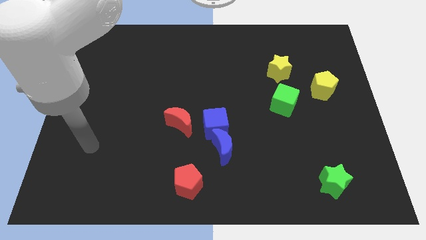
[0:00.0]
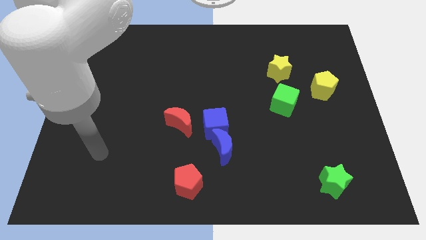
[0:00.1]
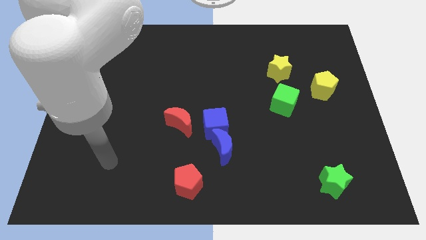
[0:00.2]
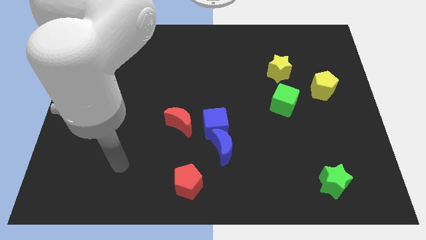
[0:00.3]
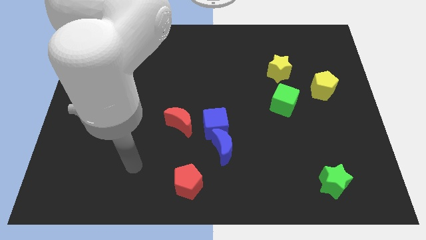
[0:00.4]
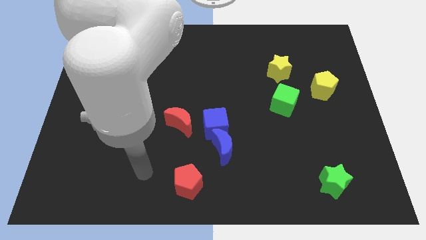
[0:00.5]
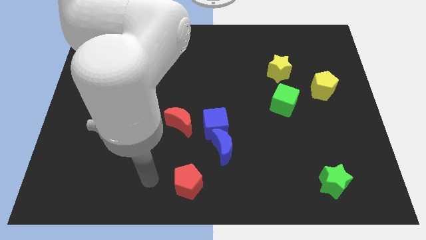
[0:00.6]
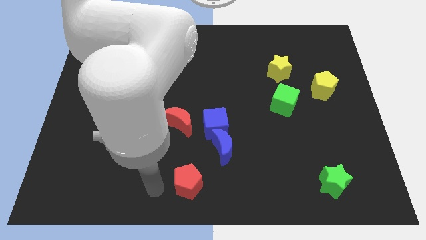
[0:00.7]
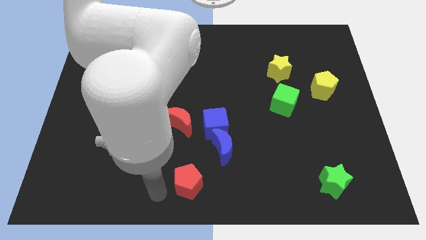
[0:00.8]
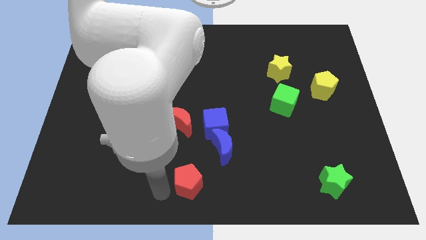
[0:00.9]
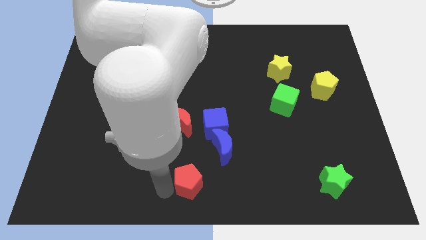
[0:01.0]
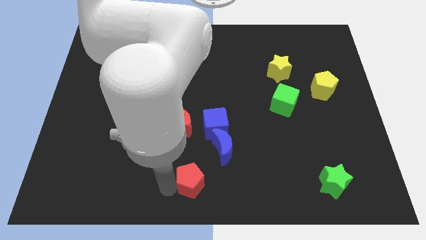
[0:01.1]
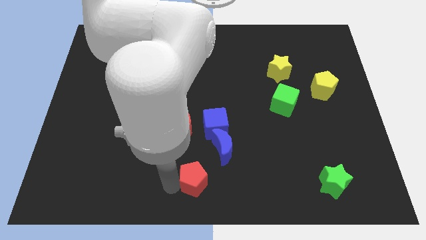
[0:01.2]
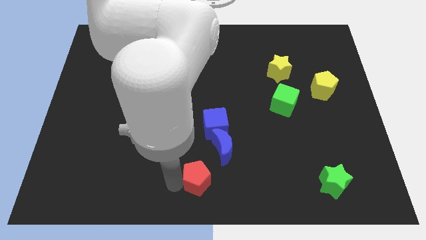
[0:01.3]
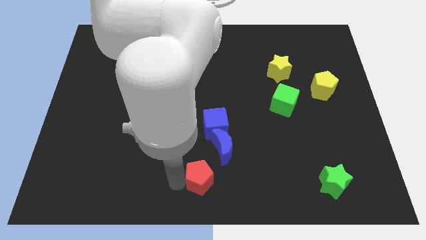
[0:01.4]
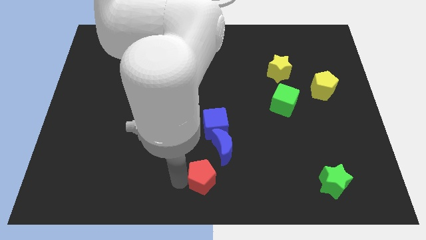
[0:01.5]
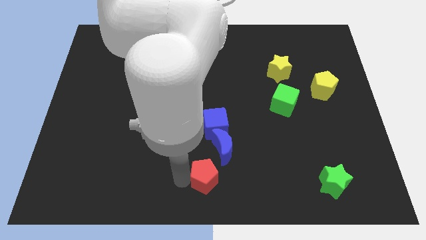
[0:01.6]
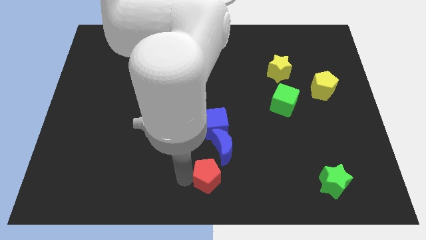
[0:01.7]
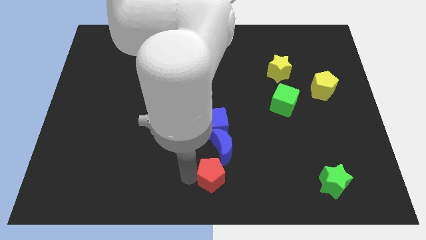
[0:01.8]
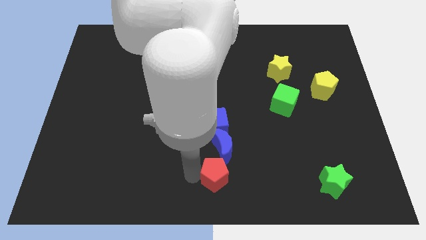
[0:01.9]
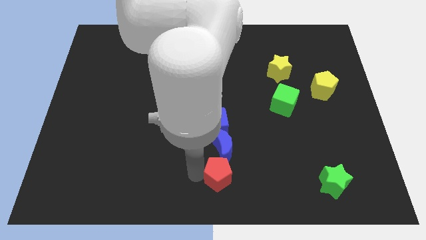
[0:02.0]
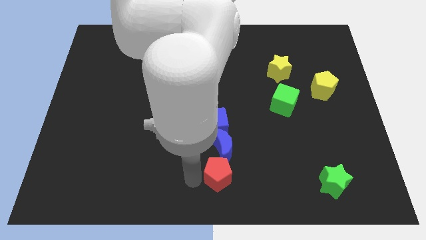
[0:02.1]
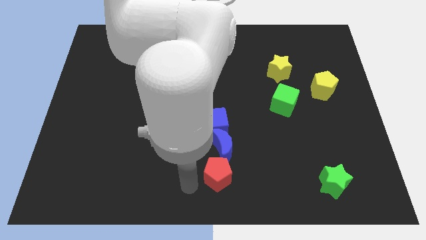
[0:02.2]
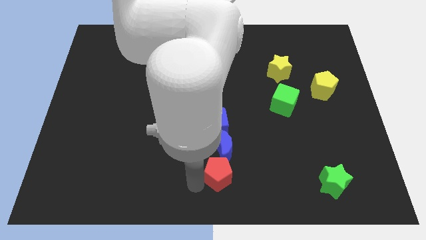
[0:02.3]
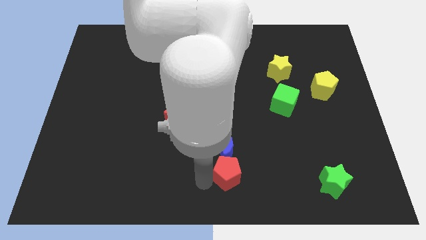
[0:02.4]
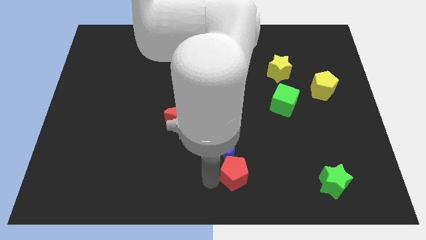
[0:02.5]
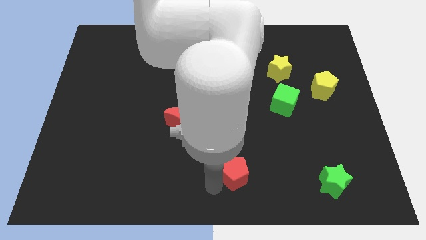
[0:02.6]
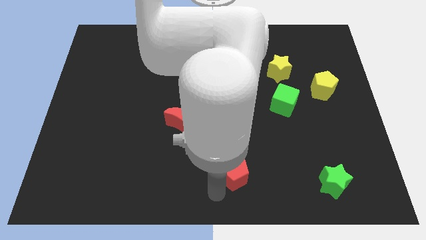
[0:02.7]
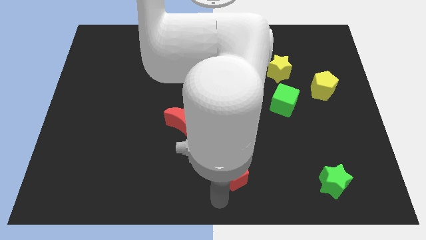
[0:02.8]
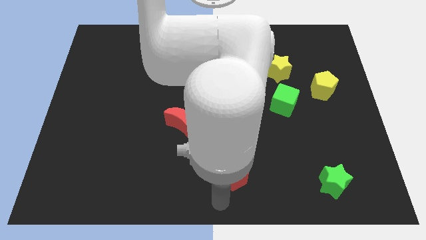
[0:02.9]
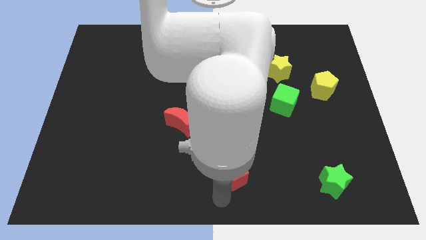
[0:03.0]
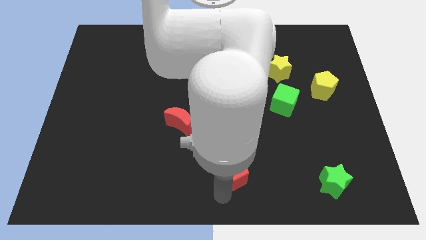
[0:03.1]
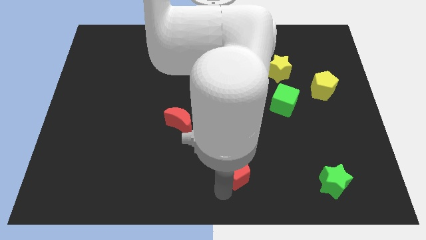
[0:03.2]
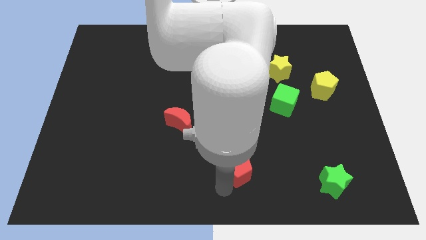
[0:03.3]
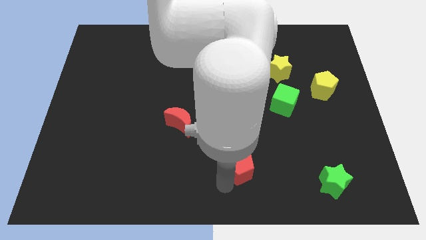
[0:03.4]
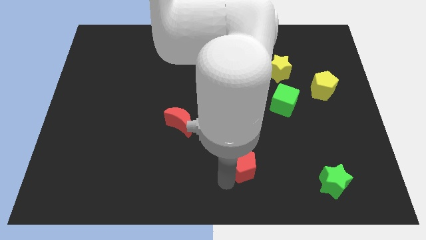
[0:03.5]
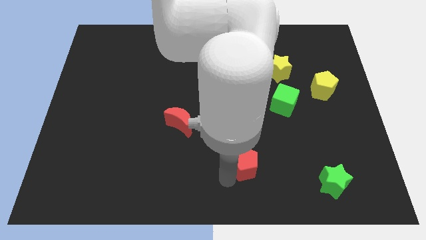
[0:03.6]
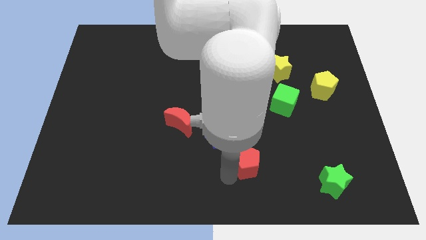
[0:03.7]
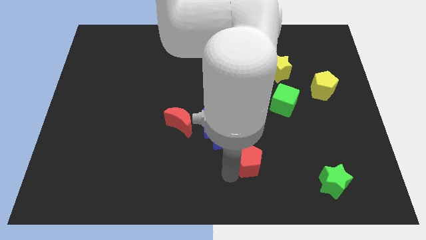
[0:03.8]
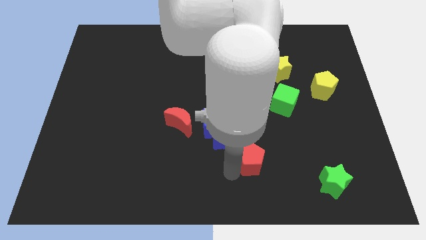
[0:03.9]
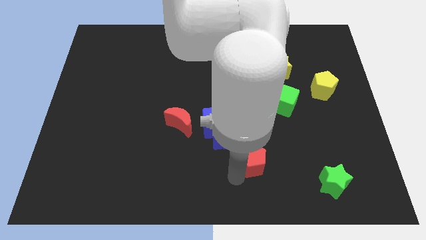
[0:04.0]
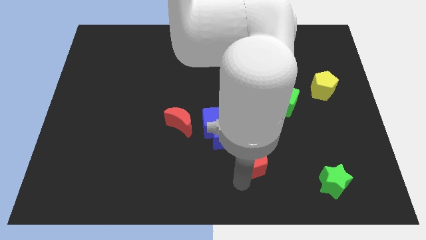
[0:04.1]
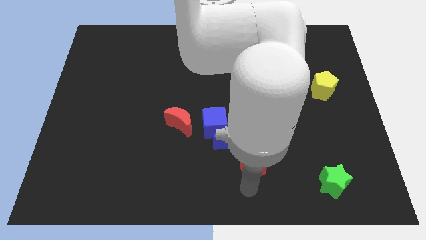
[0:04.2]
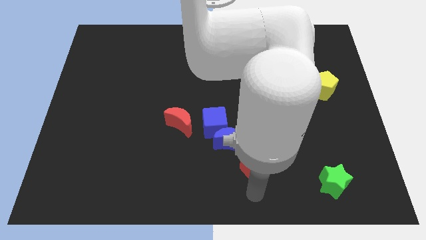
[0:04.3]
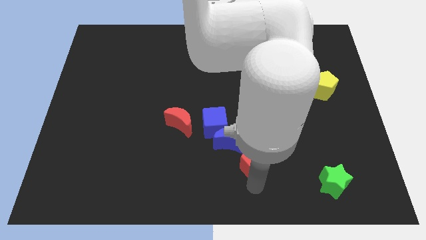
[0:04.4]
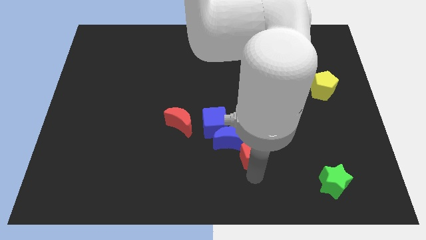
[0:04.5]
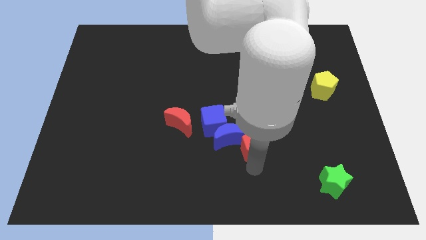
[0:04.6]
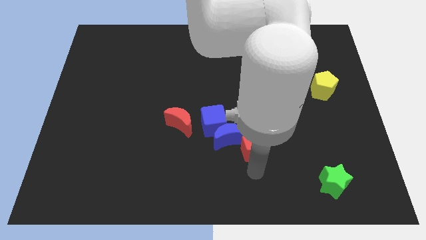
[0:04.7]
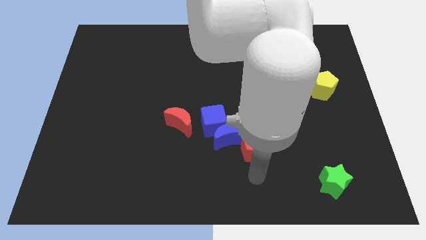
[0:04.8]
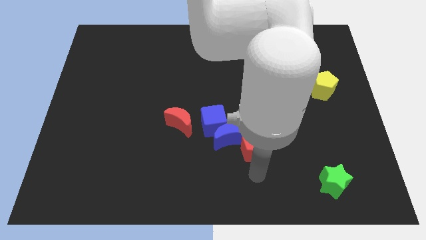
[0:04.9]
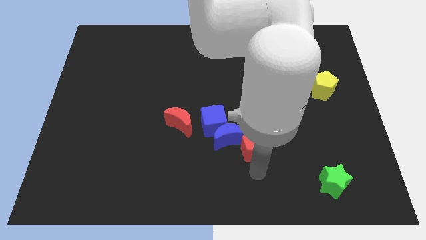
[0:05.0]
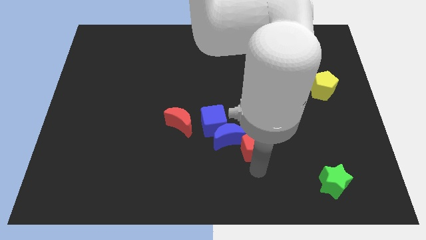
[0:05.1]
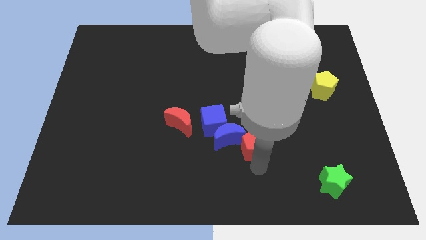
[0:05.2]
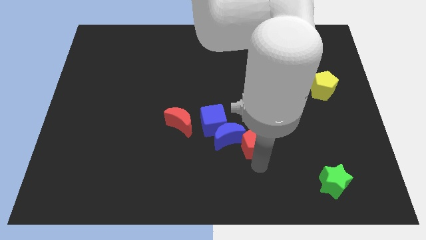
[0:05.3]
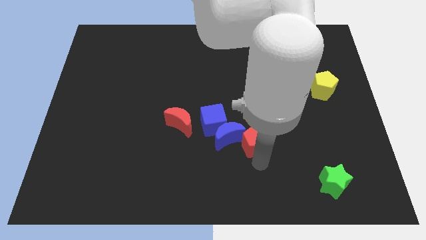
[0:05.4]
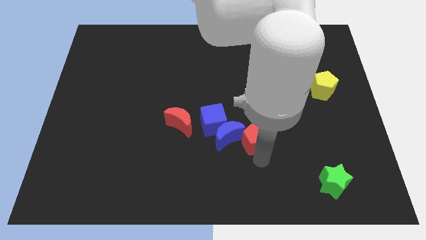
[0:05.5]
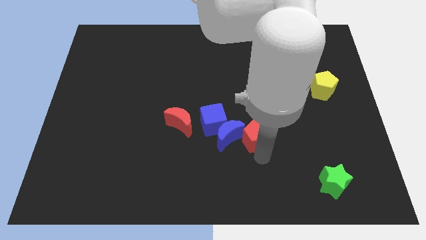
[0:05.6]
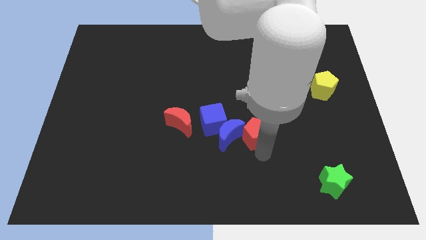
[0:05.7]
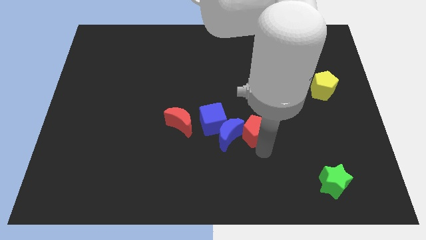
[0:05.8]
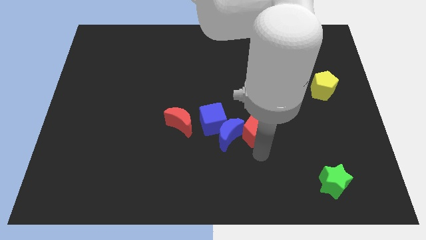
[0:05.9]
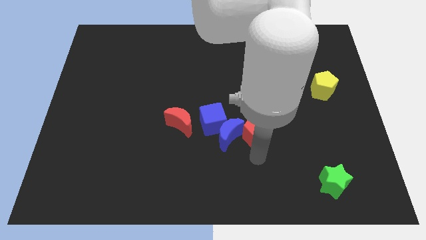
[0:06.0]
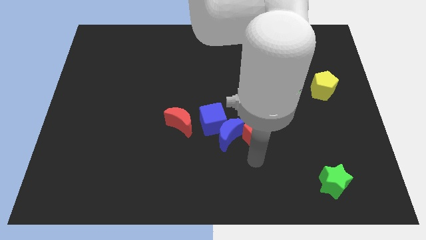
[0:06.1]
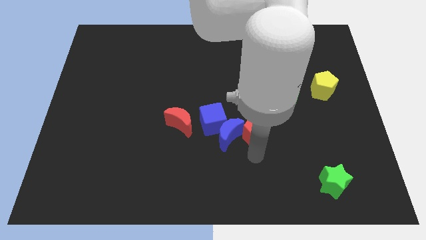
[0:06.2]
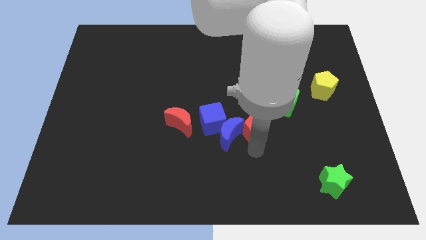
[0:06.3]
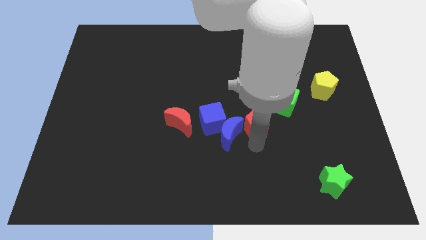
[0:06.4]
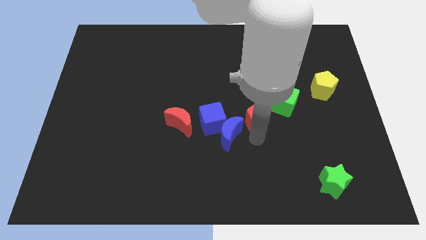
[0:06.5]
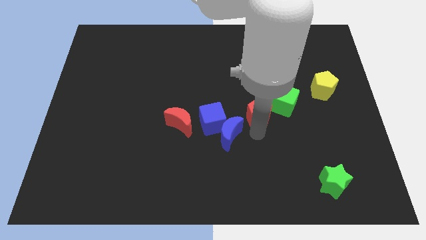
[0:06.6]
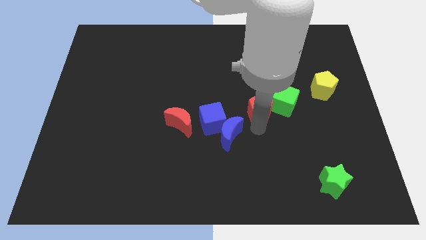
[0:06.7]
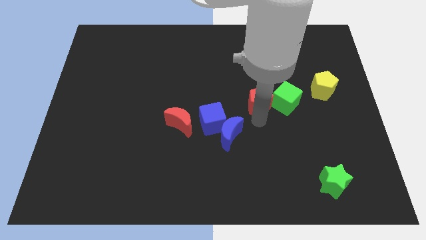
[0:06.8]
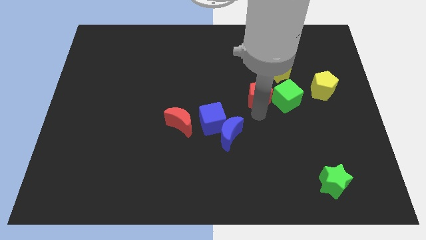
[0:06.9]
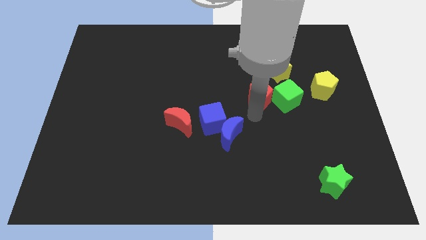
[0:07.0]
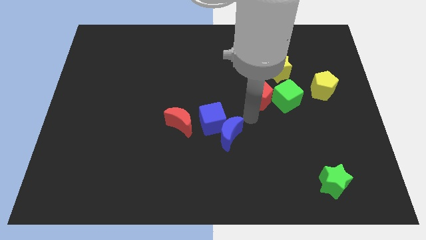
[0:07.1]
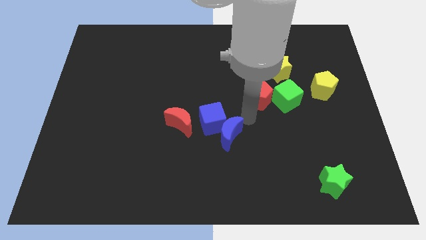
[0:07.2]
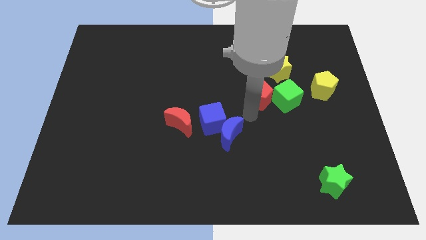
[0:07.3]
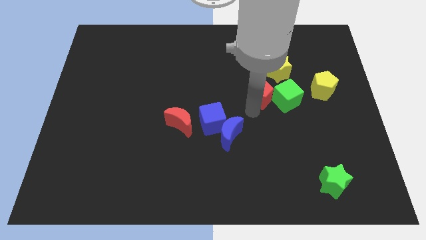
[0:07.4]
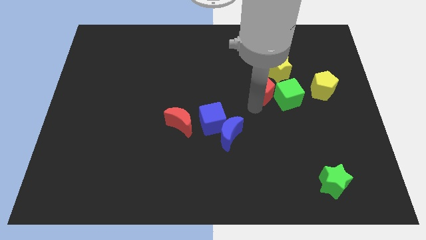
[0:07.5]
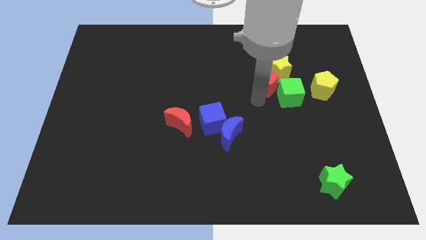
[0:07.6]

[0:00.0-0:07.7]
put the red pentagon towards the yellow star

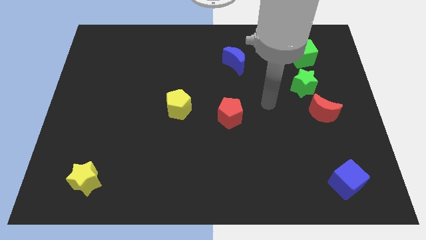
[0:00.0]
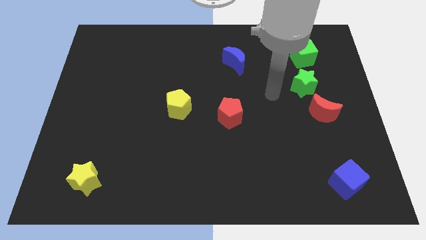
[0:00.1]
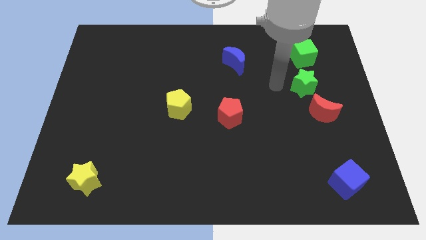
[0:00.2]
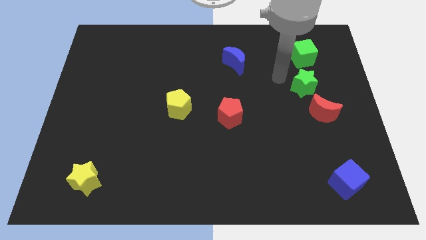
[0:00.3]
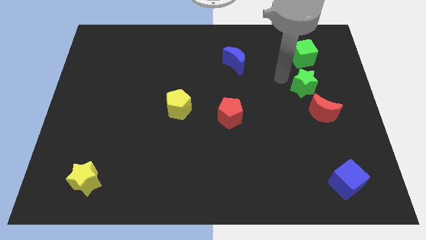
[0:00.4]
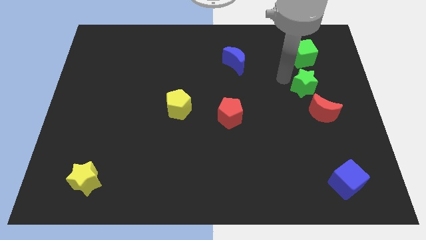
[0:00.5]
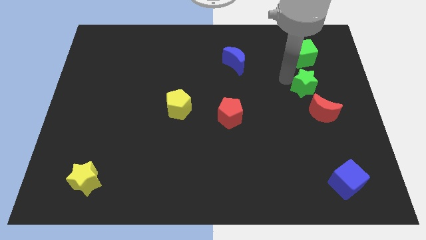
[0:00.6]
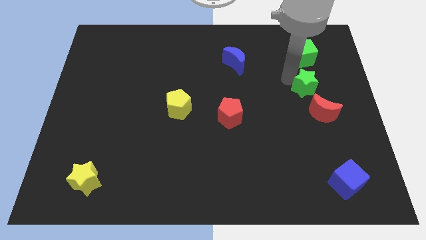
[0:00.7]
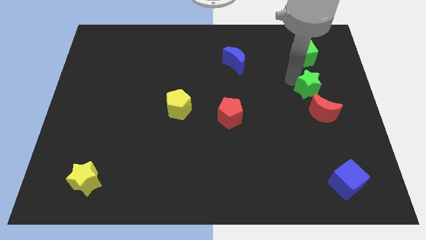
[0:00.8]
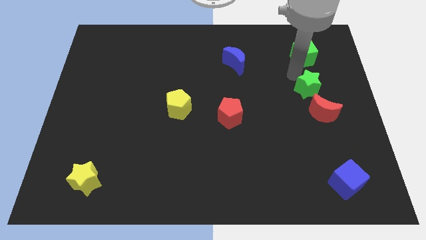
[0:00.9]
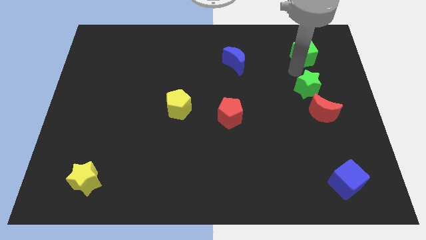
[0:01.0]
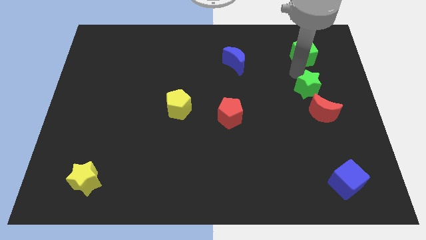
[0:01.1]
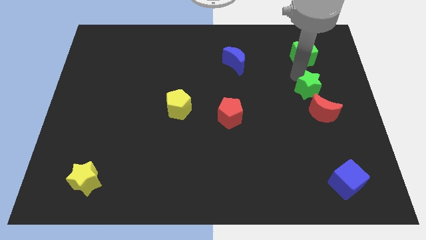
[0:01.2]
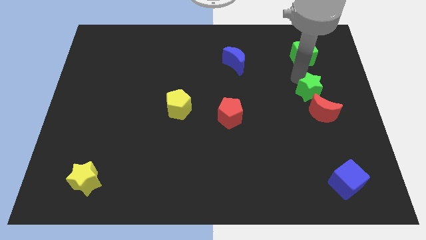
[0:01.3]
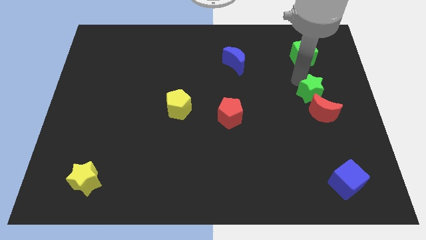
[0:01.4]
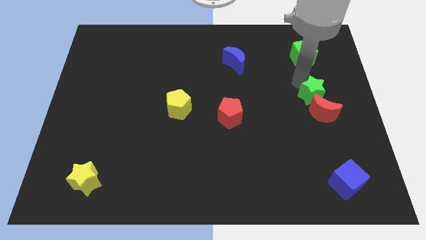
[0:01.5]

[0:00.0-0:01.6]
move the green star towards the red moon
